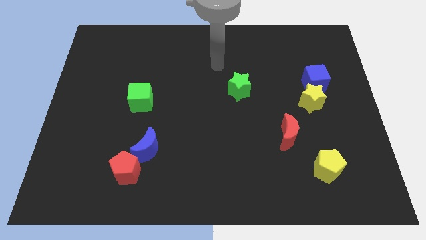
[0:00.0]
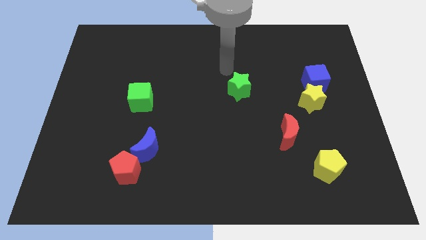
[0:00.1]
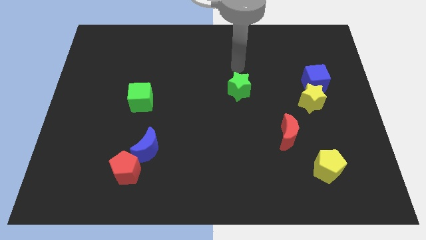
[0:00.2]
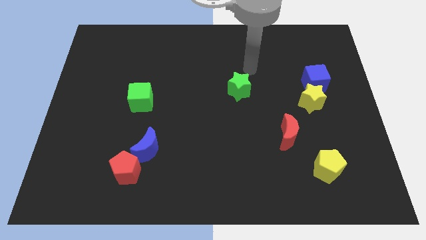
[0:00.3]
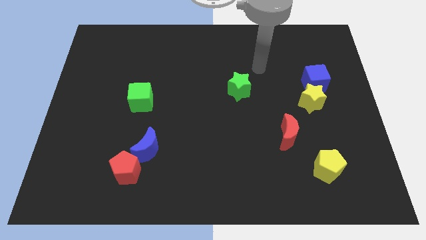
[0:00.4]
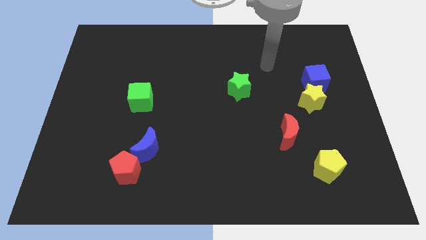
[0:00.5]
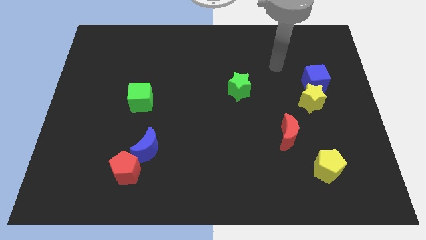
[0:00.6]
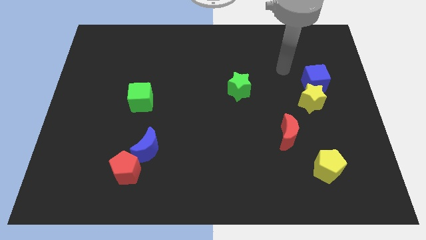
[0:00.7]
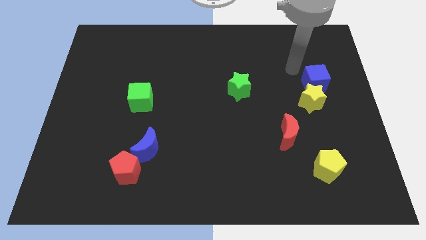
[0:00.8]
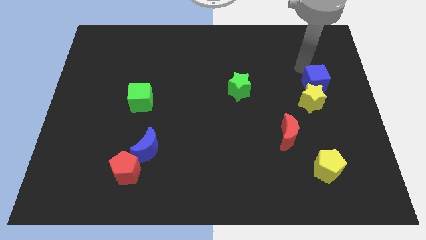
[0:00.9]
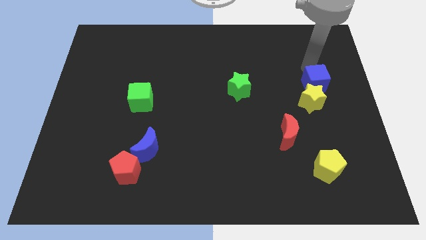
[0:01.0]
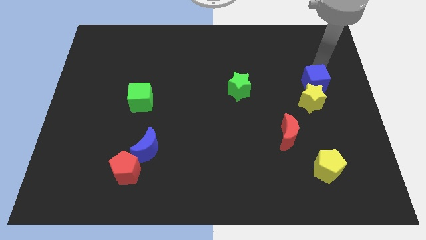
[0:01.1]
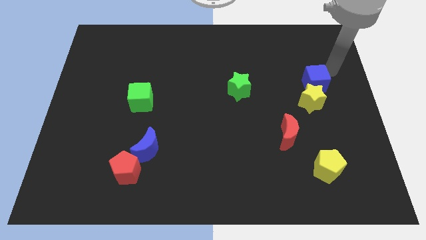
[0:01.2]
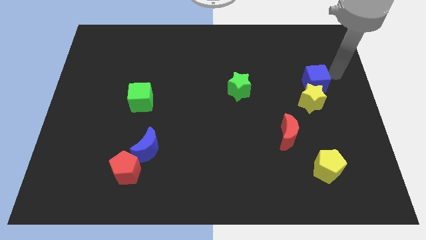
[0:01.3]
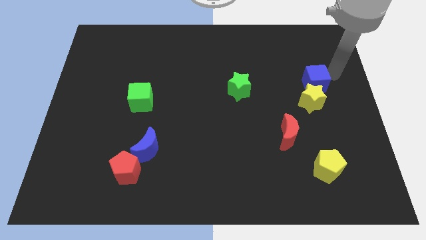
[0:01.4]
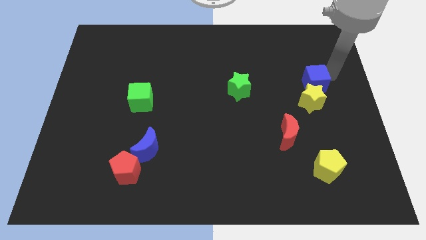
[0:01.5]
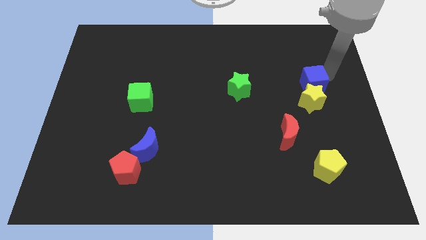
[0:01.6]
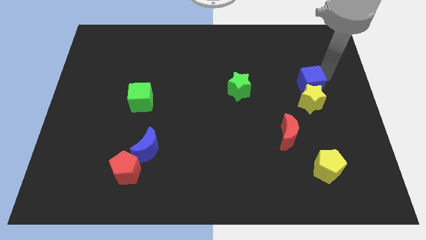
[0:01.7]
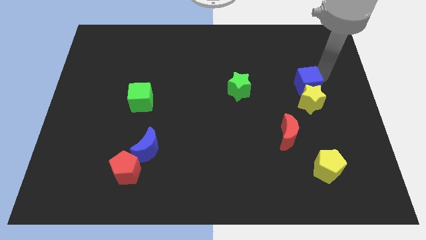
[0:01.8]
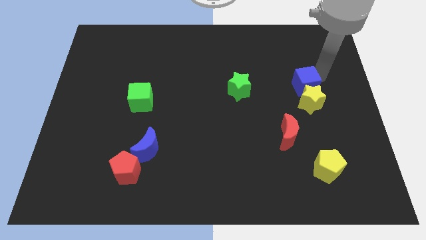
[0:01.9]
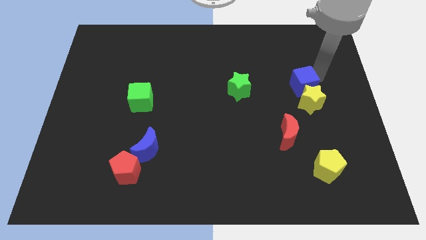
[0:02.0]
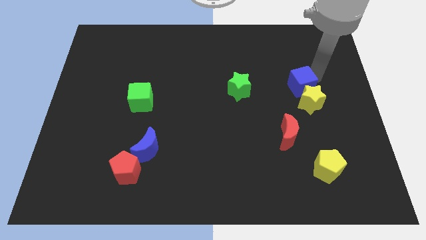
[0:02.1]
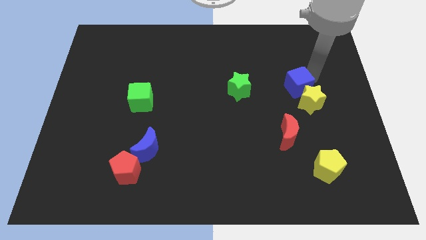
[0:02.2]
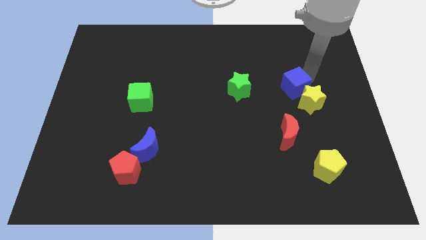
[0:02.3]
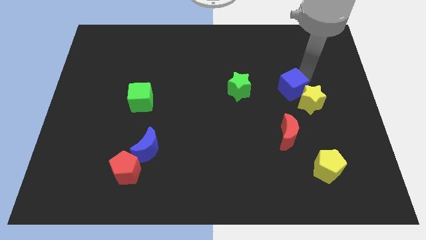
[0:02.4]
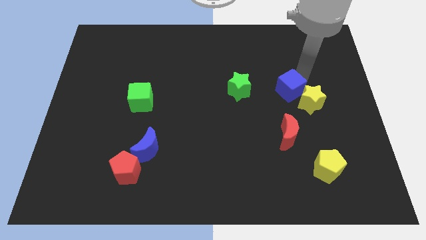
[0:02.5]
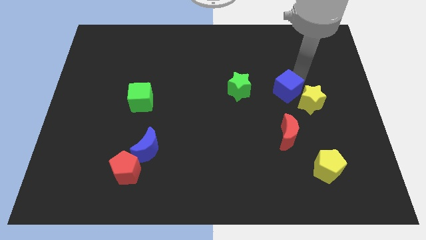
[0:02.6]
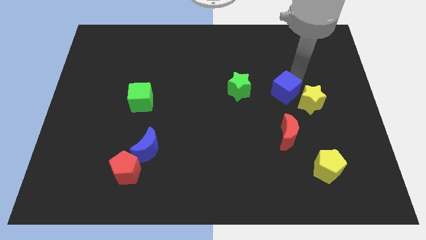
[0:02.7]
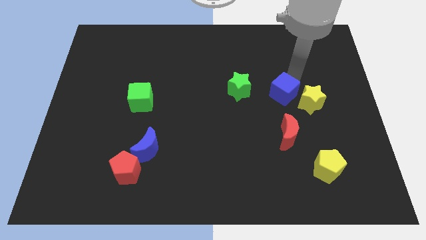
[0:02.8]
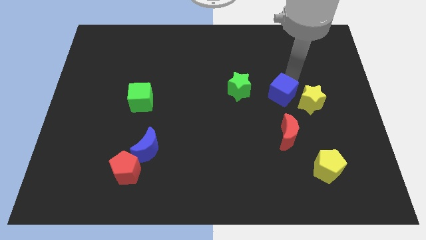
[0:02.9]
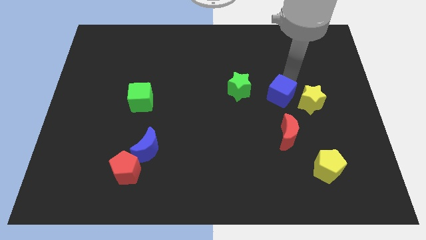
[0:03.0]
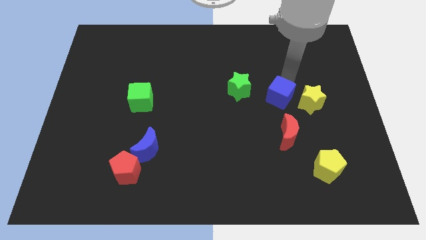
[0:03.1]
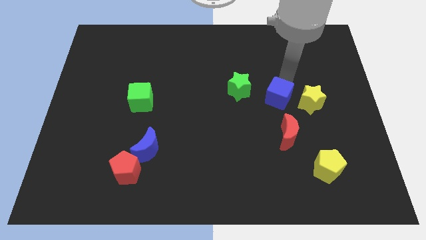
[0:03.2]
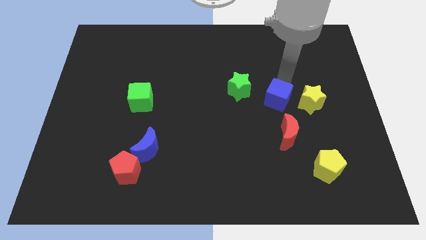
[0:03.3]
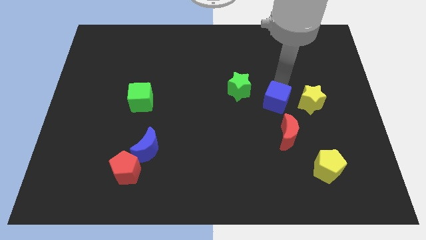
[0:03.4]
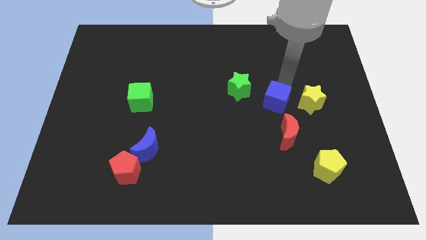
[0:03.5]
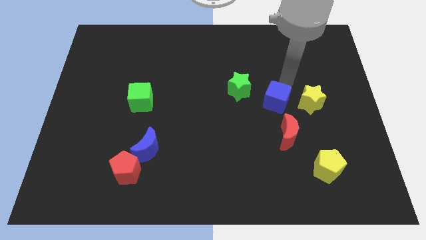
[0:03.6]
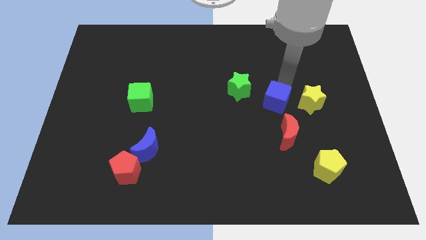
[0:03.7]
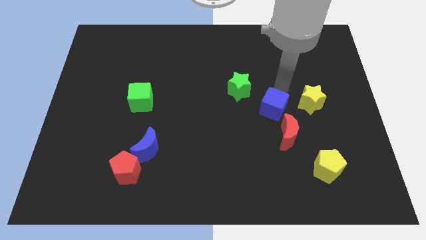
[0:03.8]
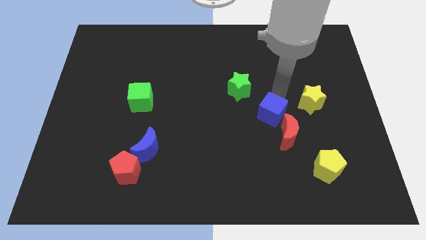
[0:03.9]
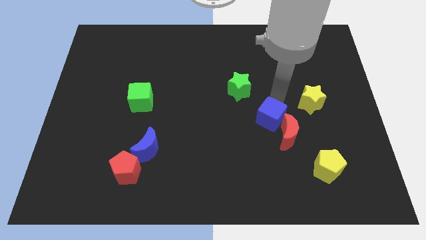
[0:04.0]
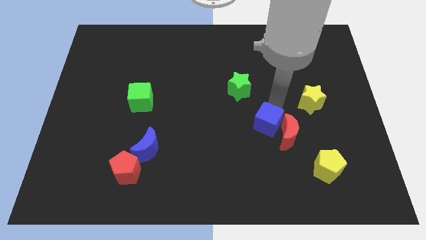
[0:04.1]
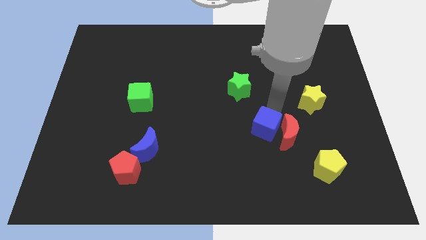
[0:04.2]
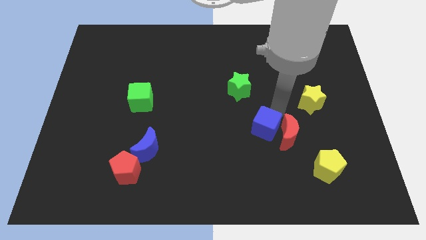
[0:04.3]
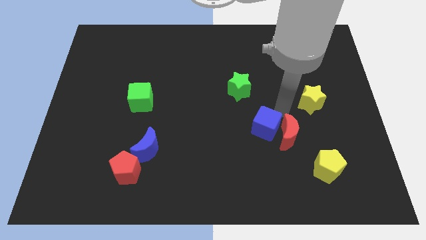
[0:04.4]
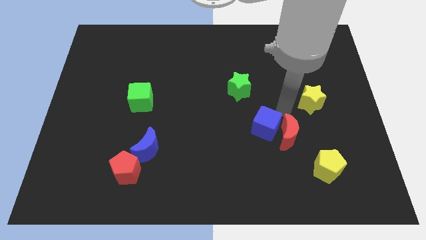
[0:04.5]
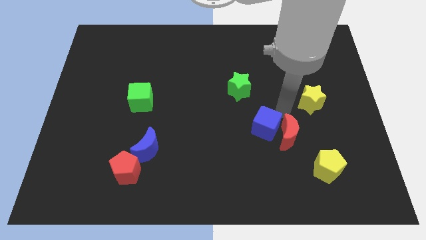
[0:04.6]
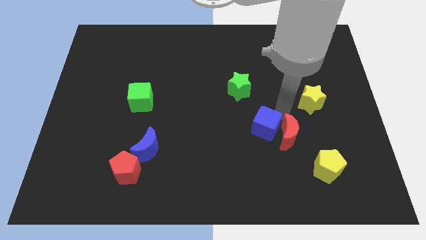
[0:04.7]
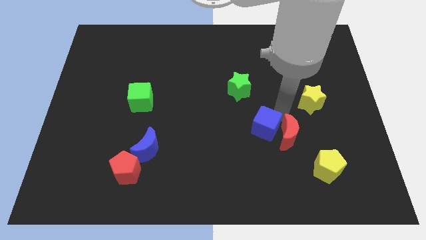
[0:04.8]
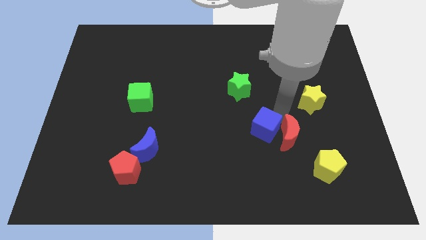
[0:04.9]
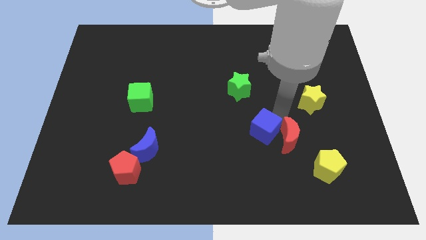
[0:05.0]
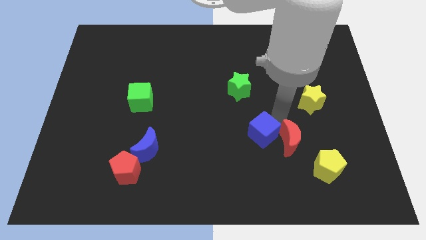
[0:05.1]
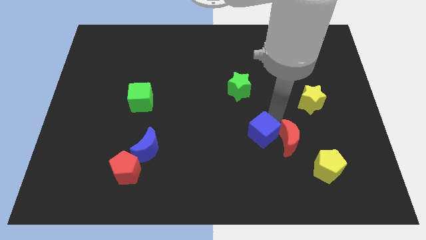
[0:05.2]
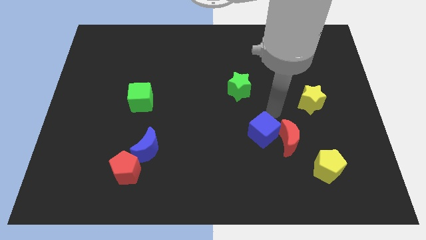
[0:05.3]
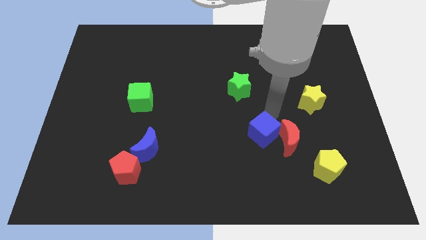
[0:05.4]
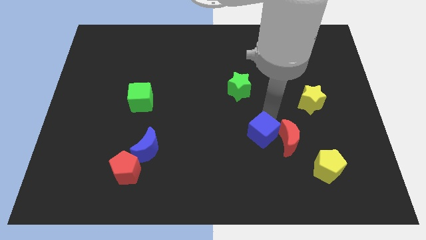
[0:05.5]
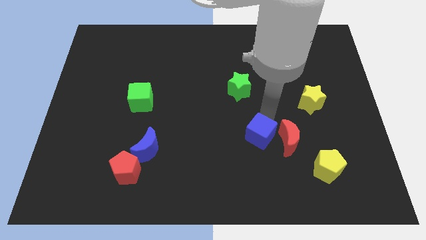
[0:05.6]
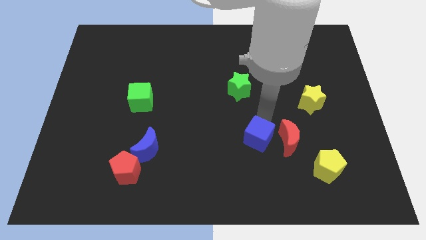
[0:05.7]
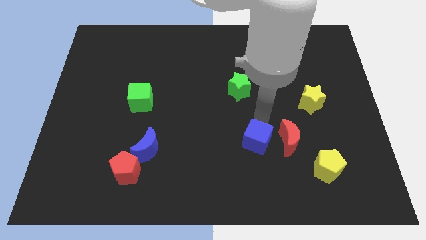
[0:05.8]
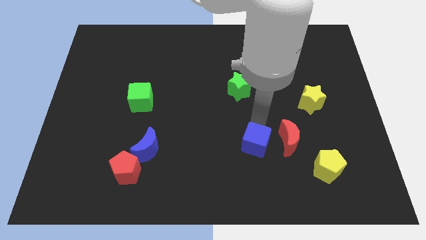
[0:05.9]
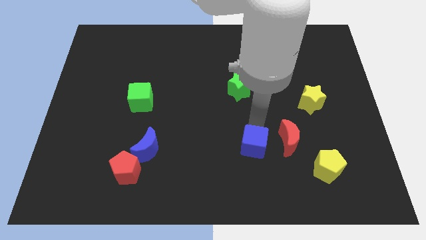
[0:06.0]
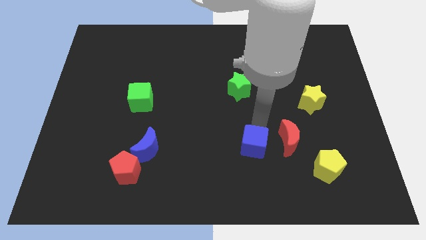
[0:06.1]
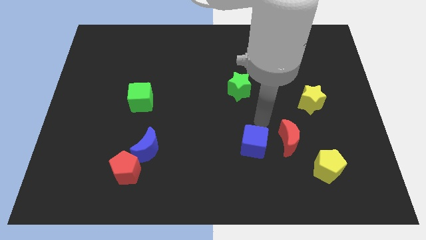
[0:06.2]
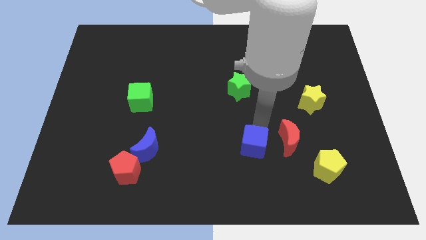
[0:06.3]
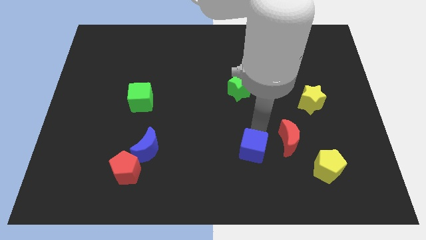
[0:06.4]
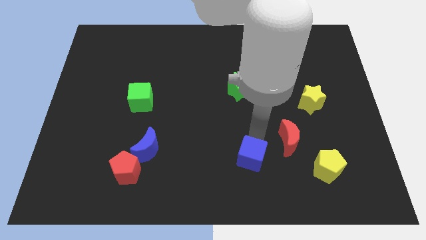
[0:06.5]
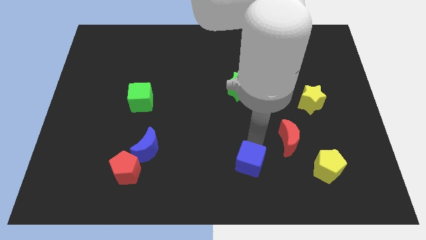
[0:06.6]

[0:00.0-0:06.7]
move the blue cube to the bottom
